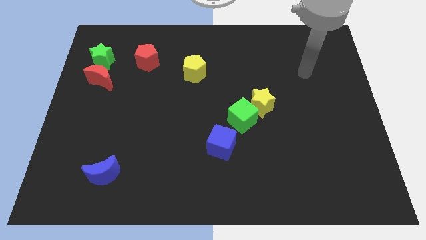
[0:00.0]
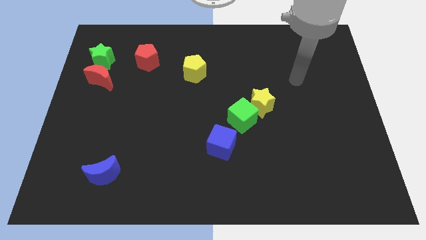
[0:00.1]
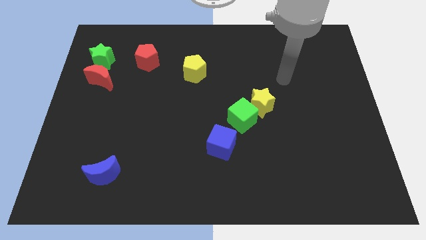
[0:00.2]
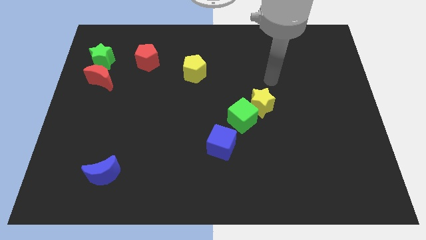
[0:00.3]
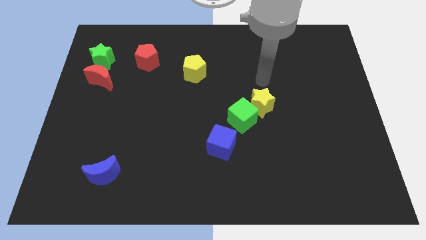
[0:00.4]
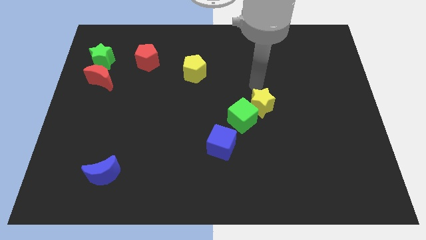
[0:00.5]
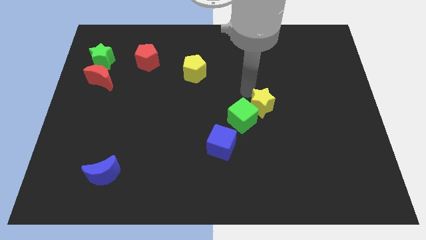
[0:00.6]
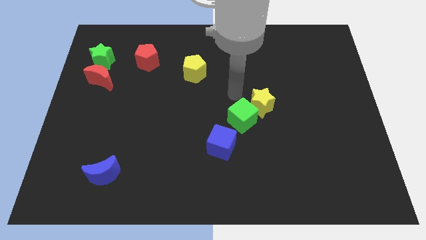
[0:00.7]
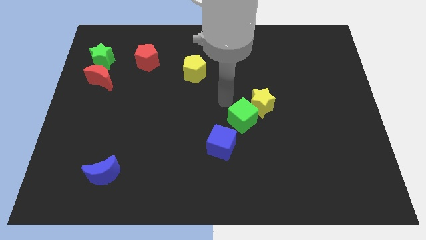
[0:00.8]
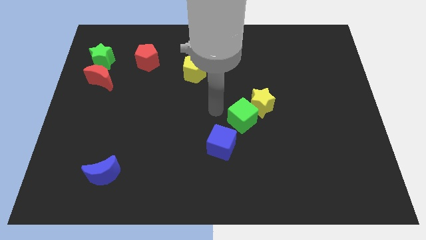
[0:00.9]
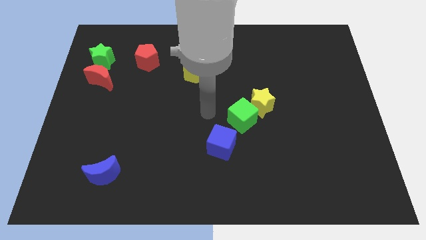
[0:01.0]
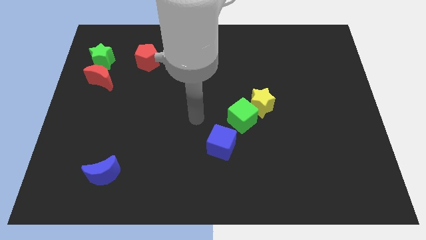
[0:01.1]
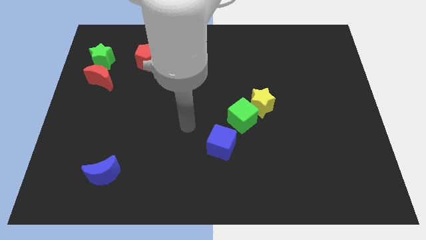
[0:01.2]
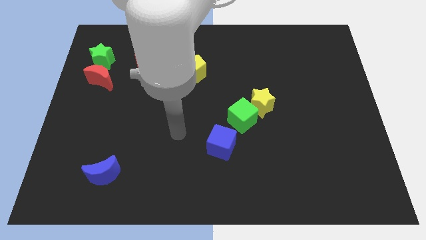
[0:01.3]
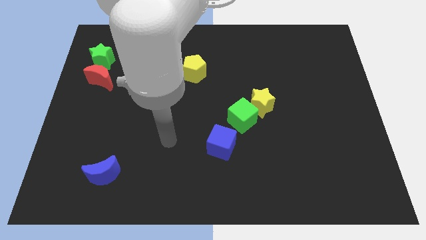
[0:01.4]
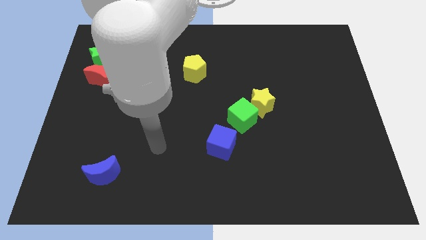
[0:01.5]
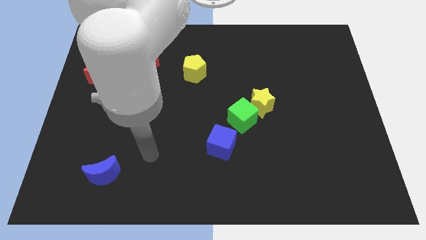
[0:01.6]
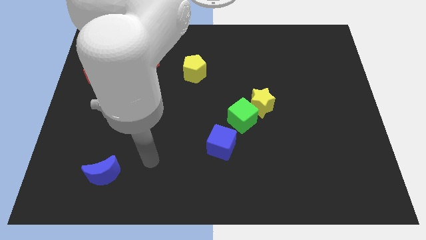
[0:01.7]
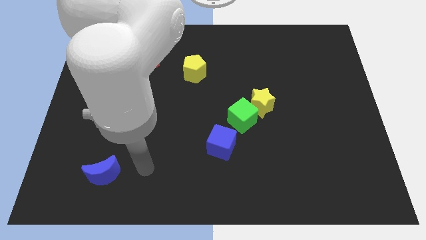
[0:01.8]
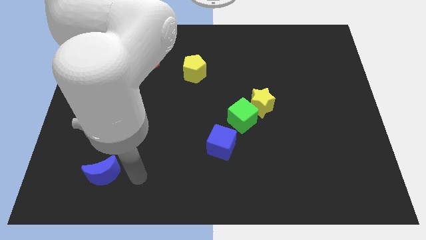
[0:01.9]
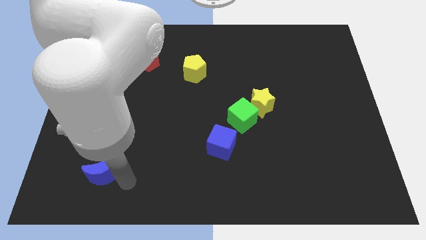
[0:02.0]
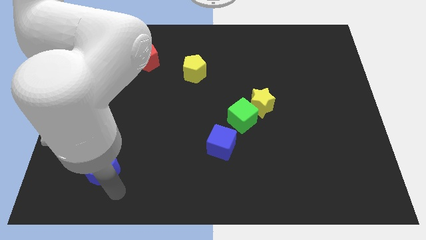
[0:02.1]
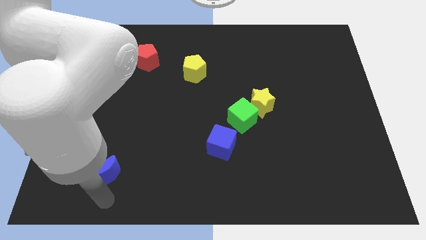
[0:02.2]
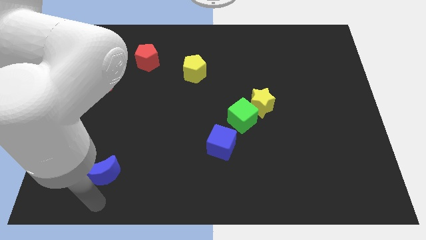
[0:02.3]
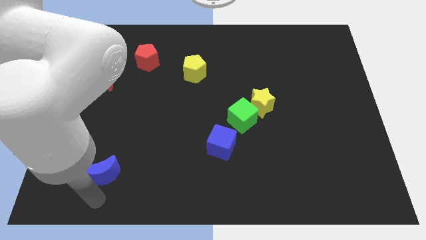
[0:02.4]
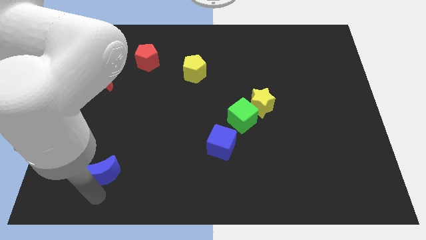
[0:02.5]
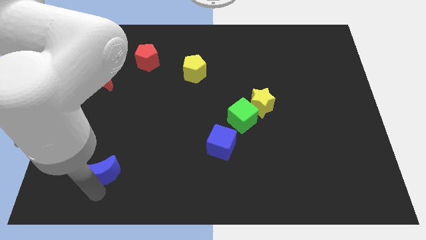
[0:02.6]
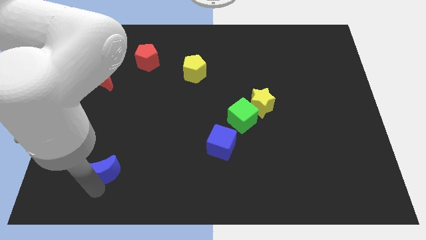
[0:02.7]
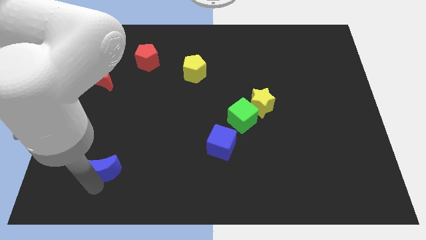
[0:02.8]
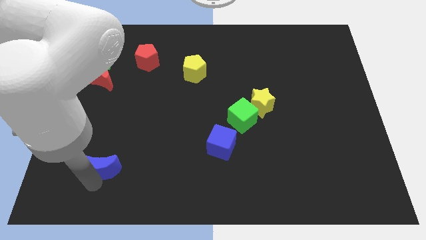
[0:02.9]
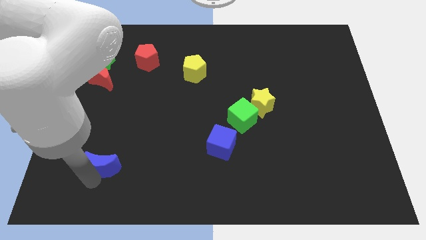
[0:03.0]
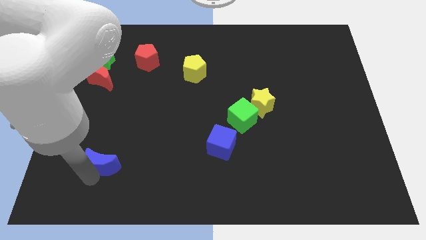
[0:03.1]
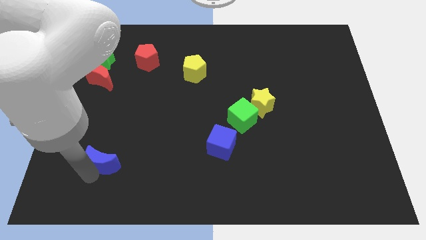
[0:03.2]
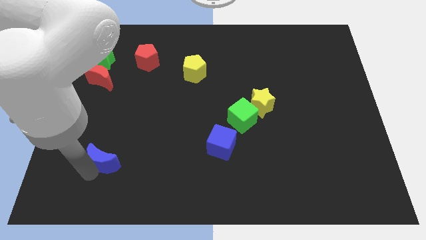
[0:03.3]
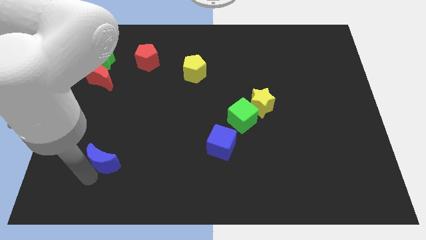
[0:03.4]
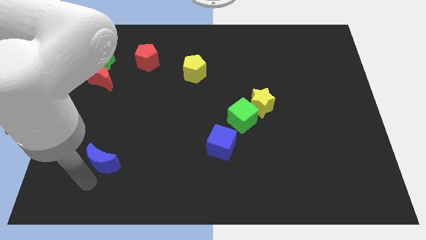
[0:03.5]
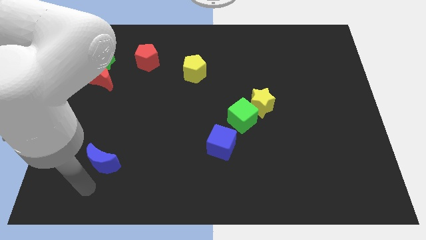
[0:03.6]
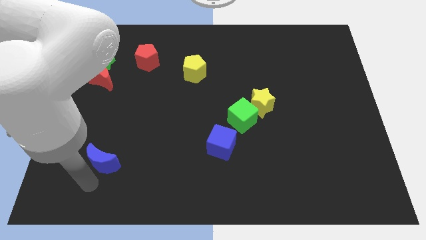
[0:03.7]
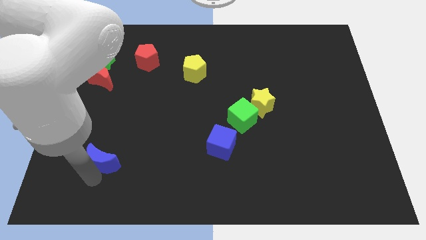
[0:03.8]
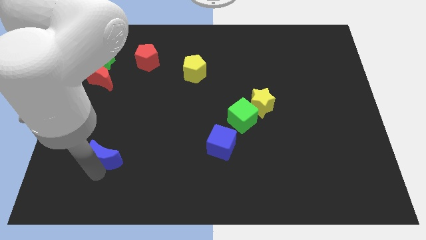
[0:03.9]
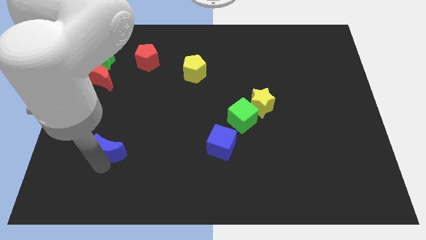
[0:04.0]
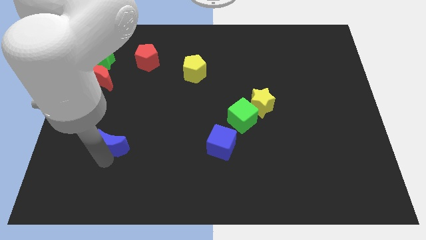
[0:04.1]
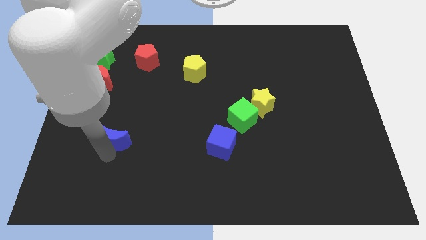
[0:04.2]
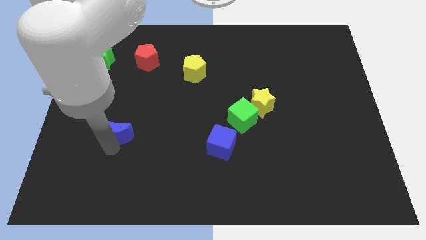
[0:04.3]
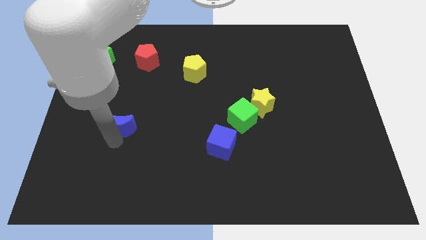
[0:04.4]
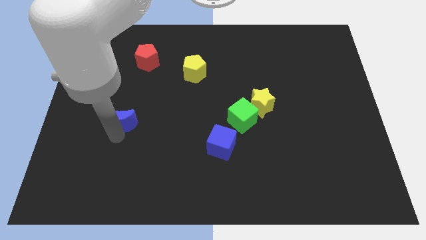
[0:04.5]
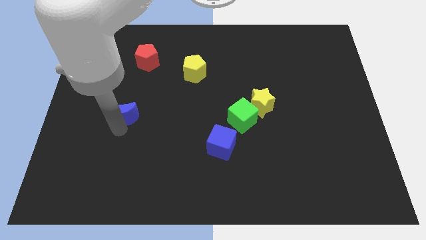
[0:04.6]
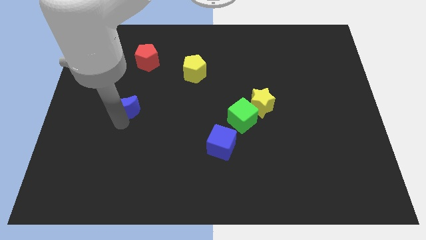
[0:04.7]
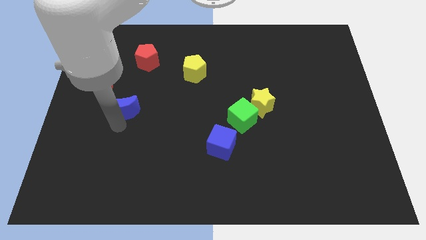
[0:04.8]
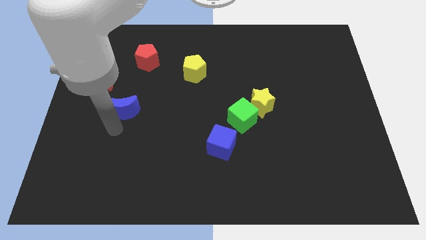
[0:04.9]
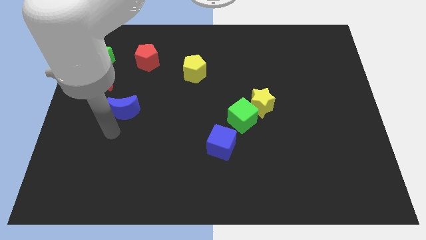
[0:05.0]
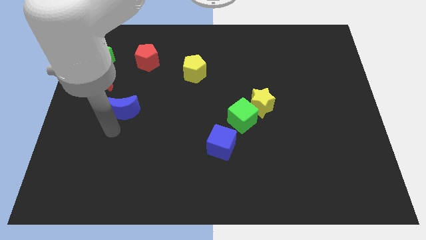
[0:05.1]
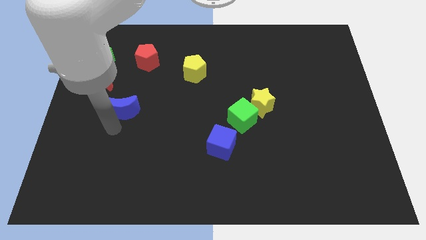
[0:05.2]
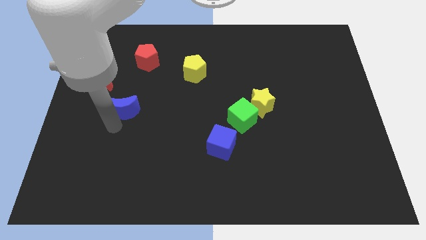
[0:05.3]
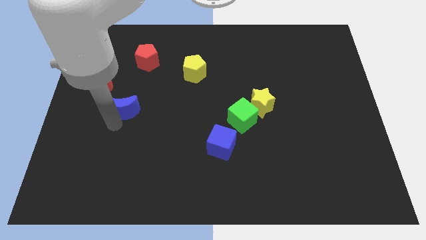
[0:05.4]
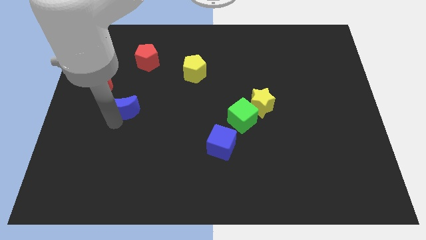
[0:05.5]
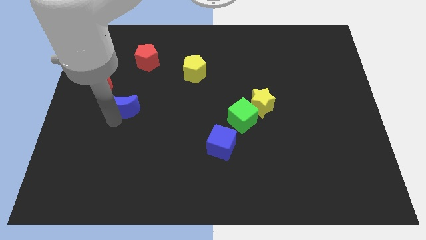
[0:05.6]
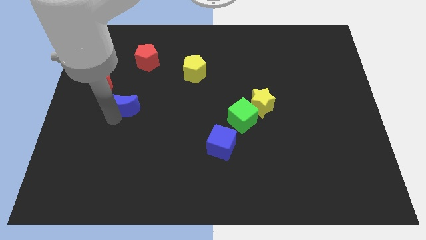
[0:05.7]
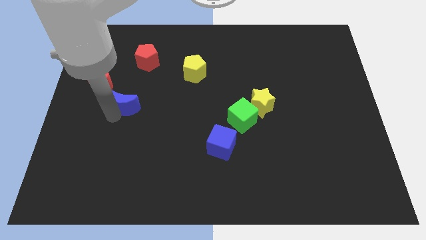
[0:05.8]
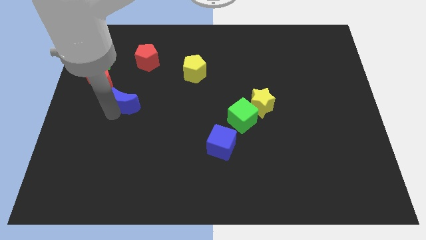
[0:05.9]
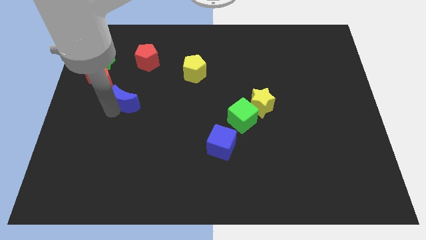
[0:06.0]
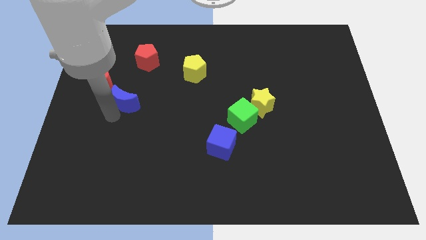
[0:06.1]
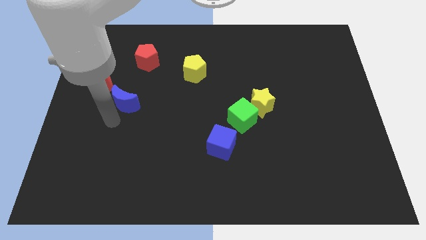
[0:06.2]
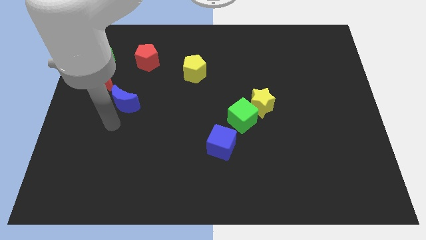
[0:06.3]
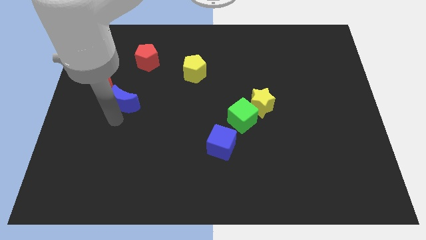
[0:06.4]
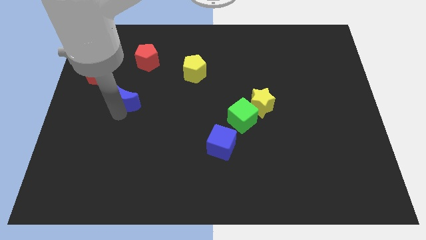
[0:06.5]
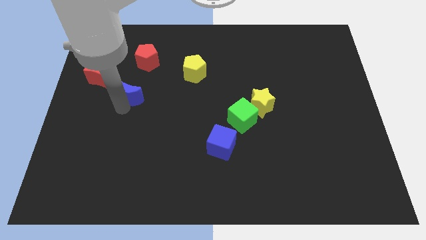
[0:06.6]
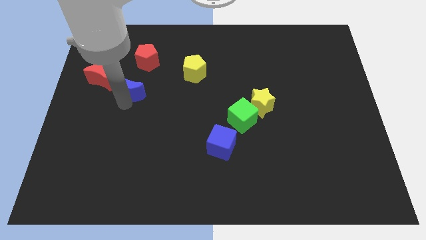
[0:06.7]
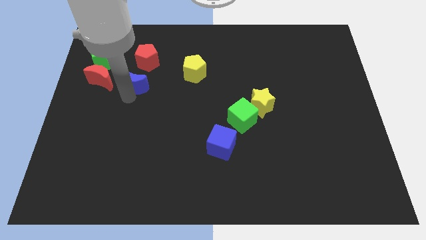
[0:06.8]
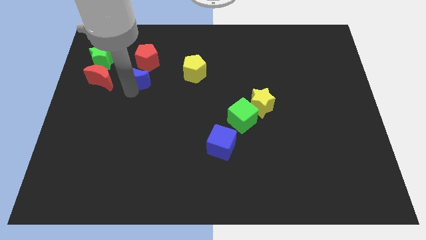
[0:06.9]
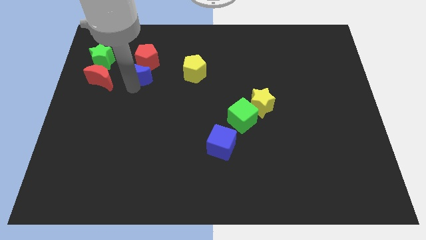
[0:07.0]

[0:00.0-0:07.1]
put the blue moon close to the red pentagon

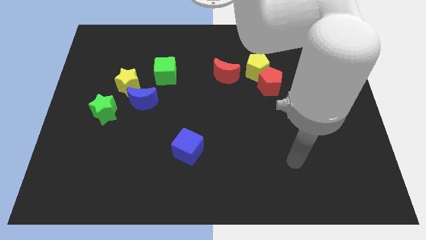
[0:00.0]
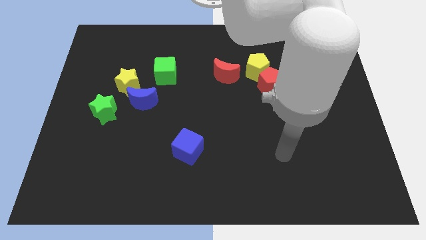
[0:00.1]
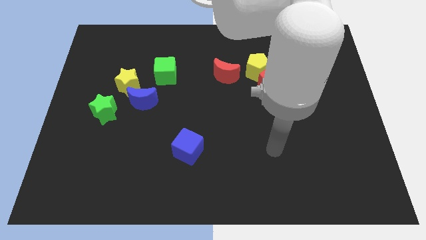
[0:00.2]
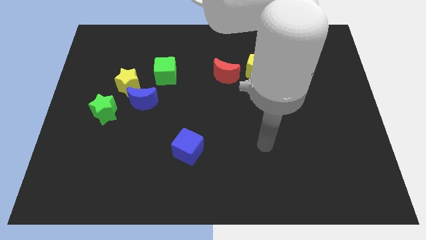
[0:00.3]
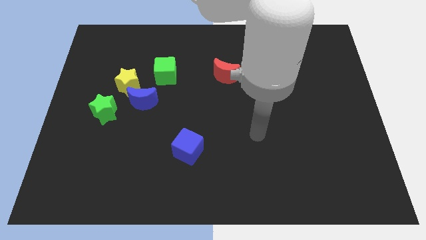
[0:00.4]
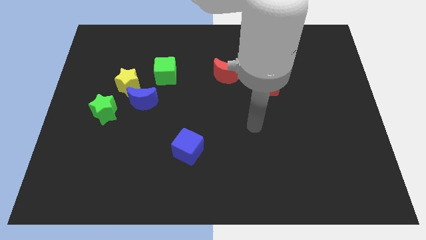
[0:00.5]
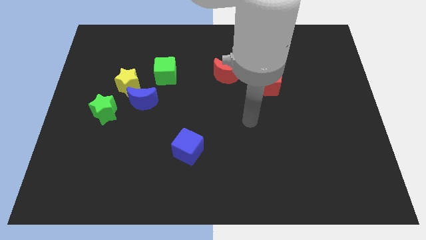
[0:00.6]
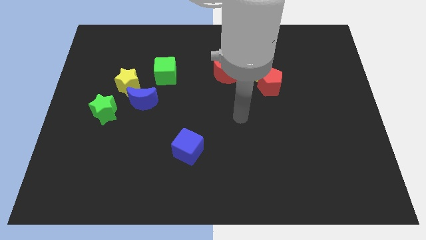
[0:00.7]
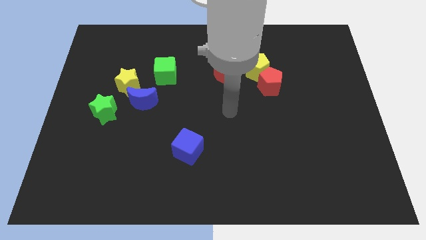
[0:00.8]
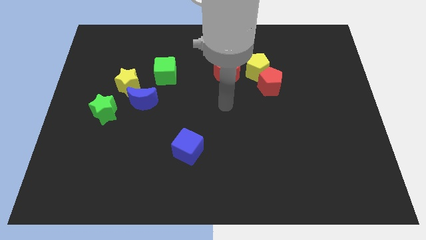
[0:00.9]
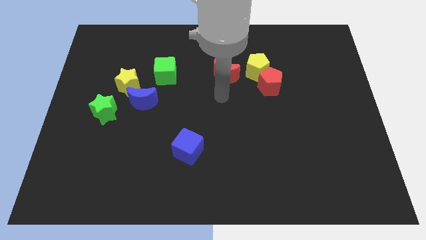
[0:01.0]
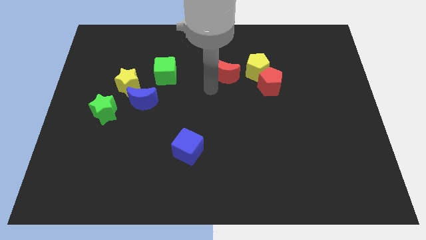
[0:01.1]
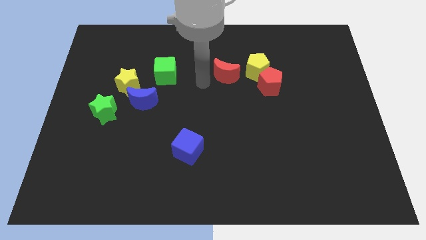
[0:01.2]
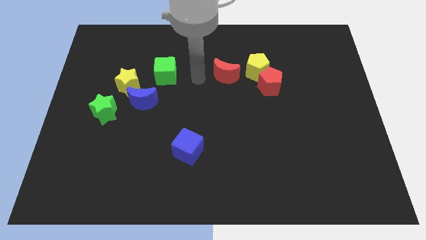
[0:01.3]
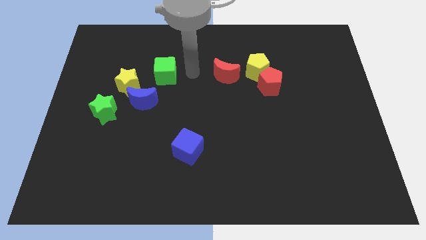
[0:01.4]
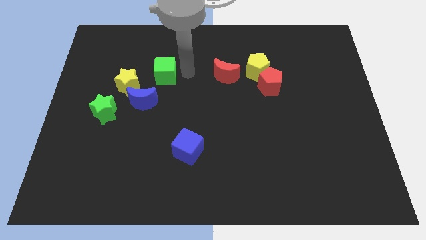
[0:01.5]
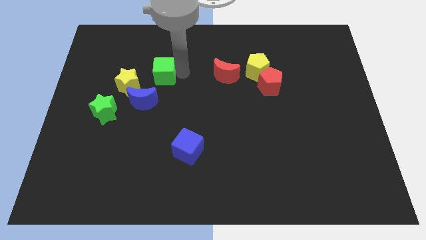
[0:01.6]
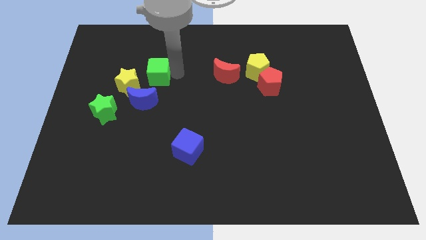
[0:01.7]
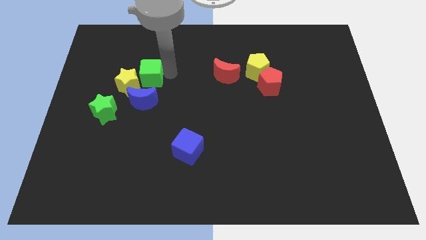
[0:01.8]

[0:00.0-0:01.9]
put the green cube close to the yellow star
